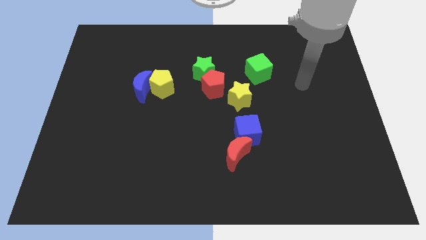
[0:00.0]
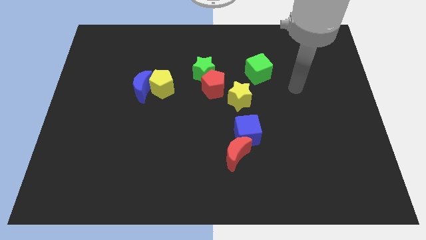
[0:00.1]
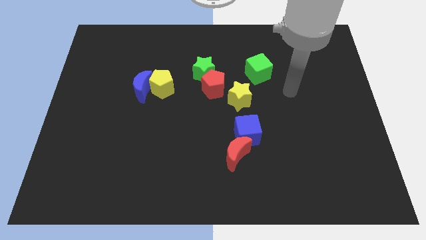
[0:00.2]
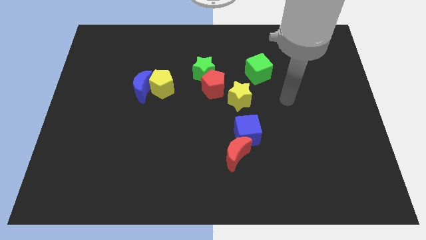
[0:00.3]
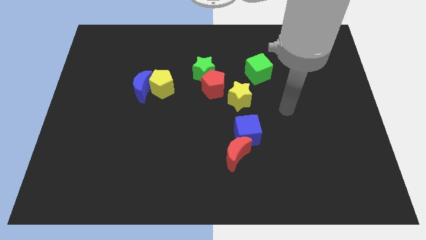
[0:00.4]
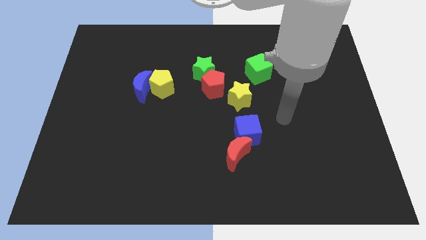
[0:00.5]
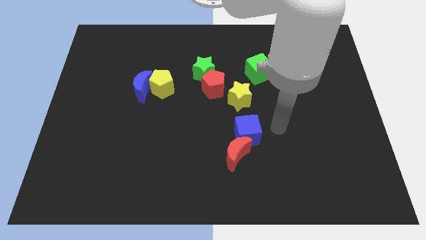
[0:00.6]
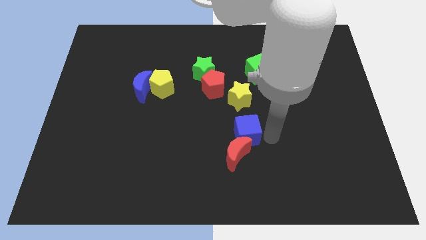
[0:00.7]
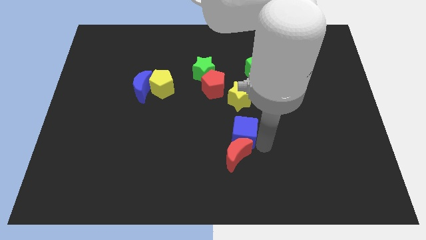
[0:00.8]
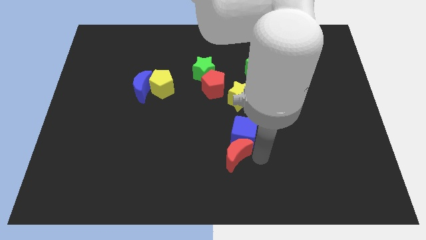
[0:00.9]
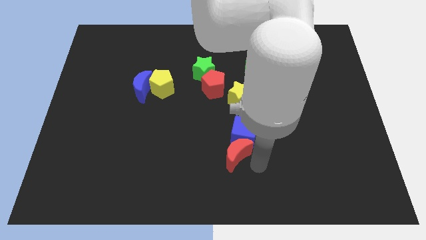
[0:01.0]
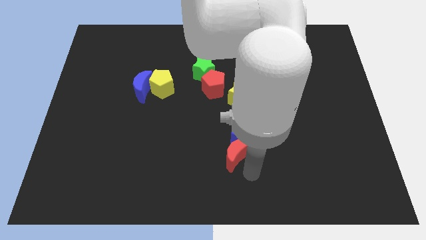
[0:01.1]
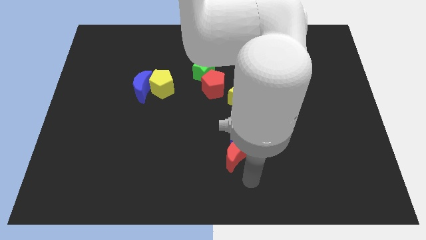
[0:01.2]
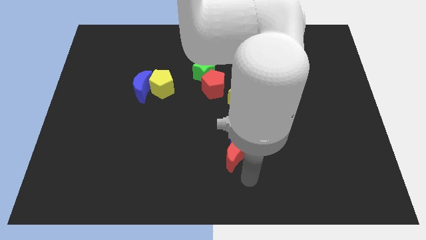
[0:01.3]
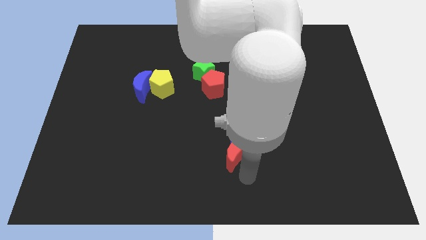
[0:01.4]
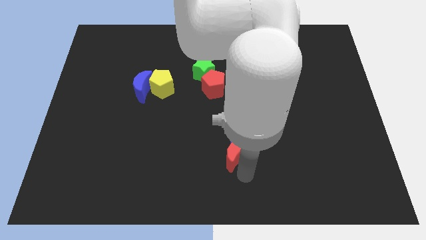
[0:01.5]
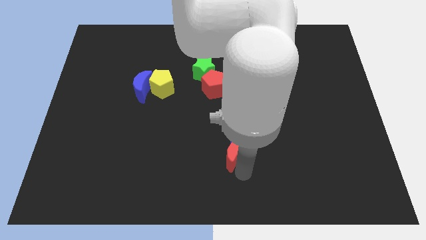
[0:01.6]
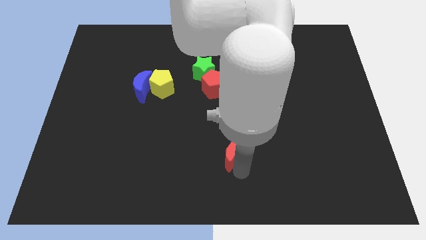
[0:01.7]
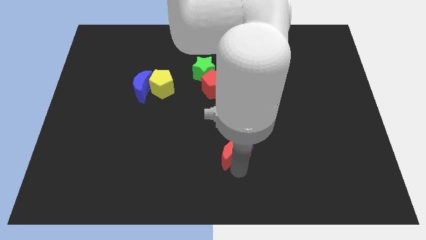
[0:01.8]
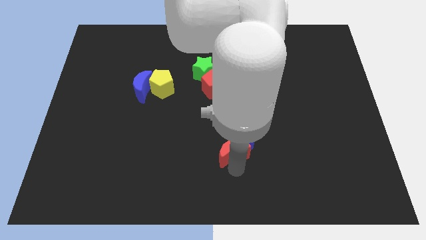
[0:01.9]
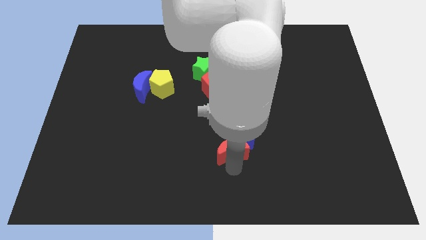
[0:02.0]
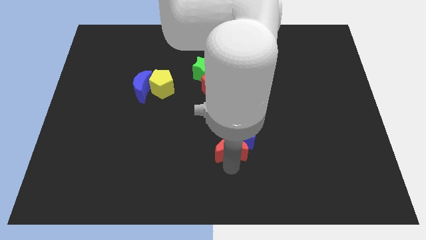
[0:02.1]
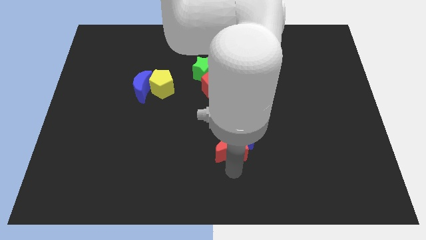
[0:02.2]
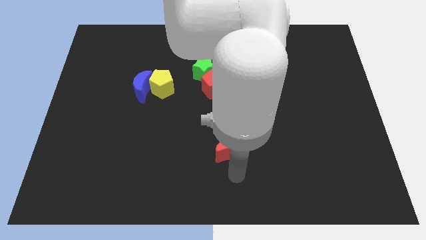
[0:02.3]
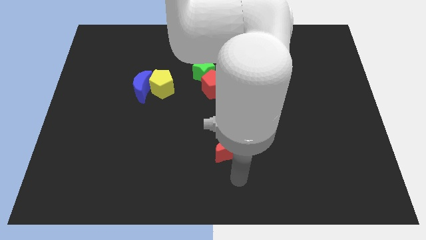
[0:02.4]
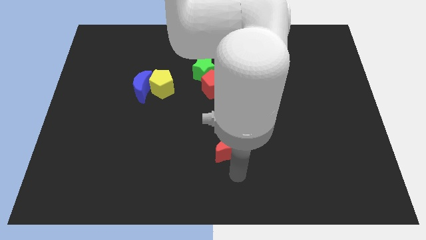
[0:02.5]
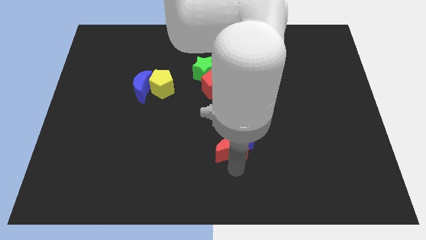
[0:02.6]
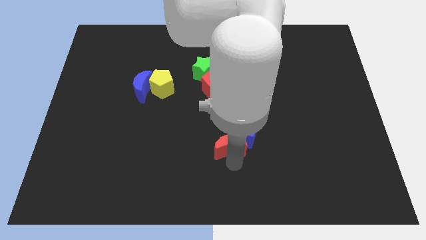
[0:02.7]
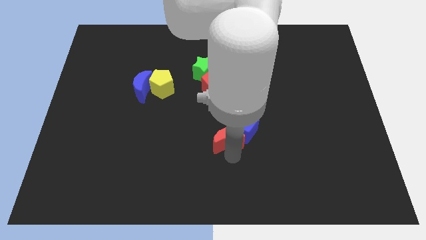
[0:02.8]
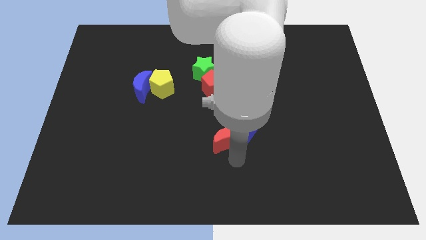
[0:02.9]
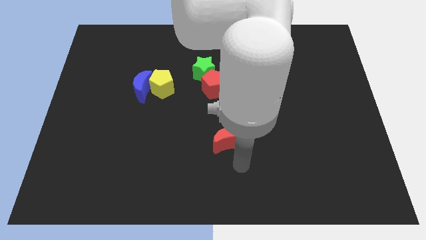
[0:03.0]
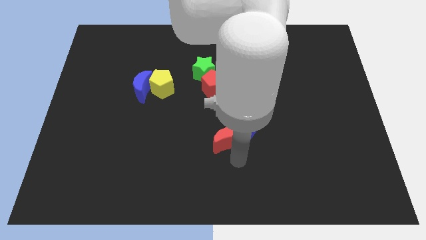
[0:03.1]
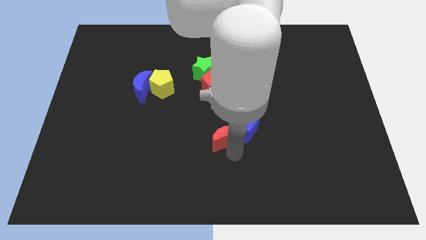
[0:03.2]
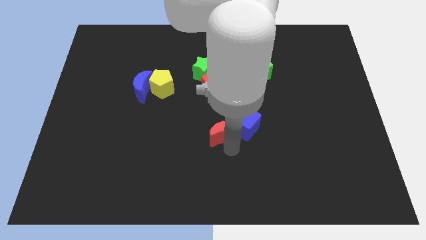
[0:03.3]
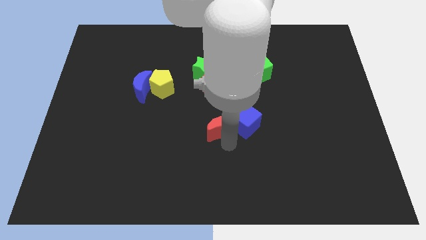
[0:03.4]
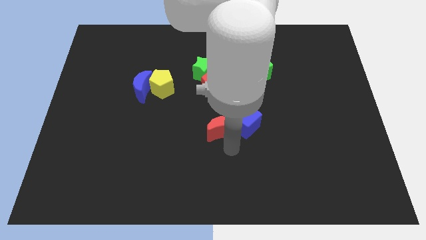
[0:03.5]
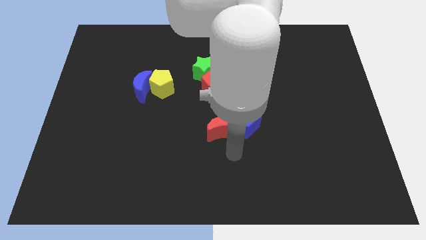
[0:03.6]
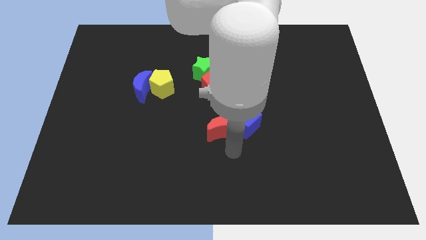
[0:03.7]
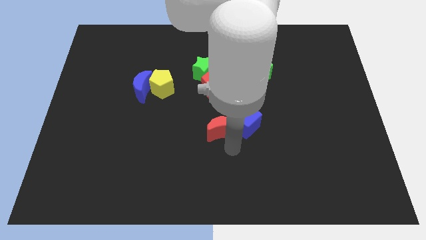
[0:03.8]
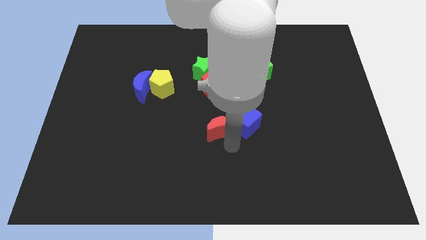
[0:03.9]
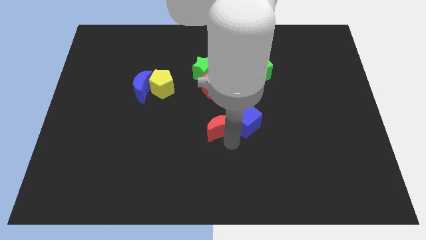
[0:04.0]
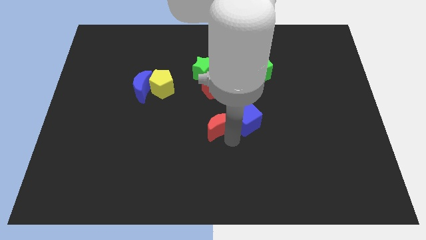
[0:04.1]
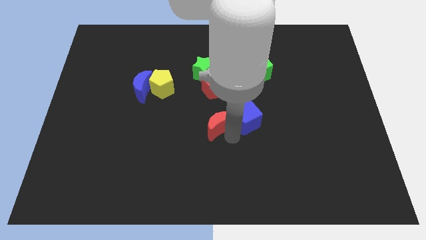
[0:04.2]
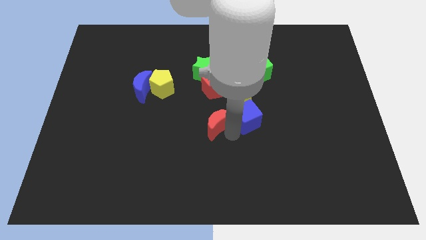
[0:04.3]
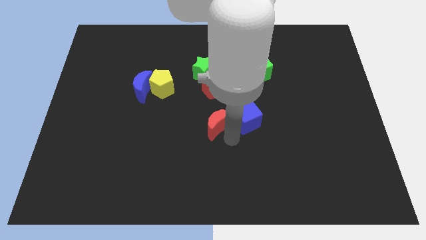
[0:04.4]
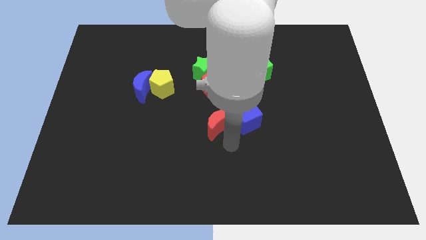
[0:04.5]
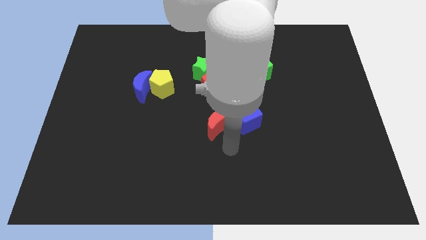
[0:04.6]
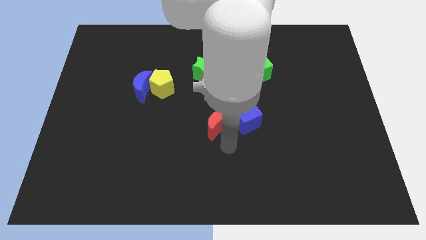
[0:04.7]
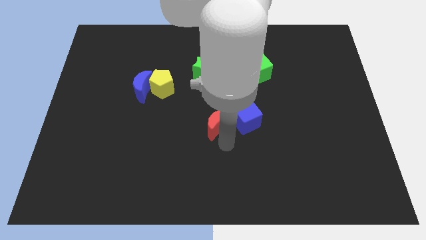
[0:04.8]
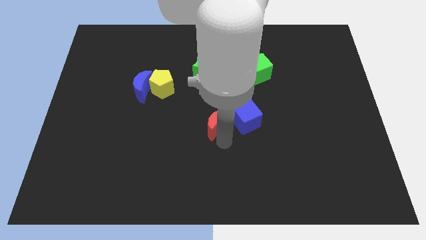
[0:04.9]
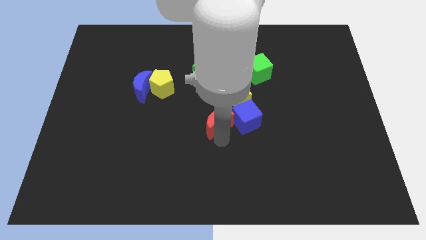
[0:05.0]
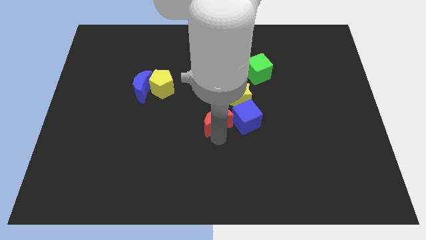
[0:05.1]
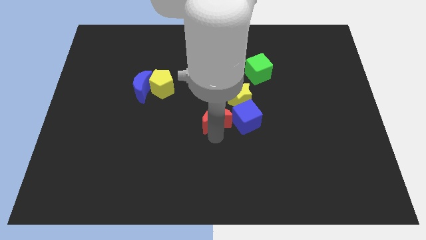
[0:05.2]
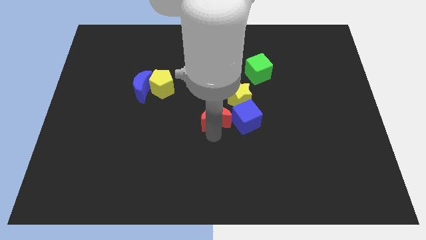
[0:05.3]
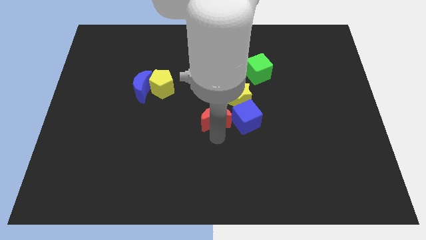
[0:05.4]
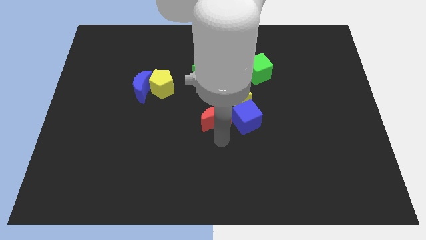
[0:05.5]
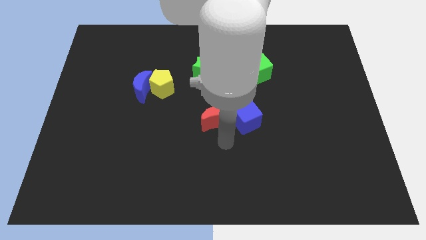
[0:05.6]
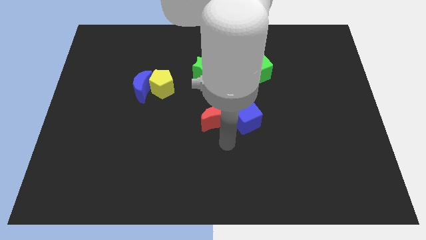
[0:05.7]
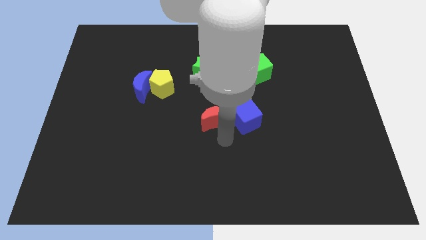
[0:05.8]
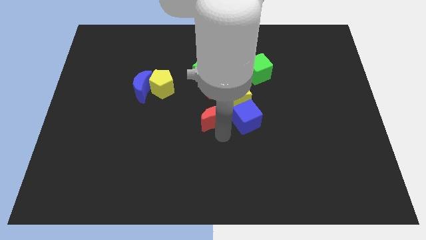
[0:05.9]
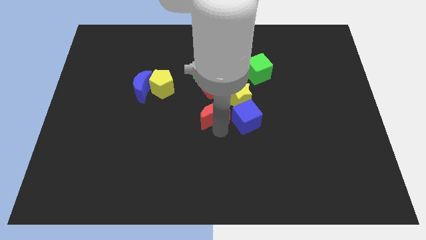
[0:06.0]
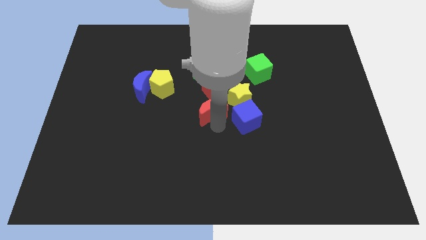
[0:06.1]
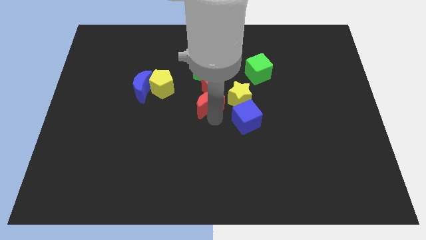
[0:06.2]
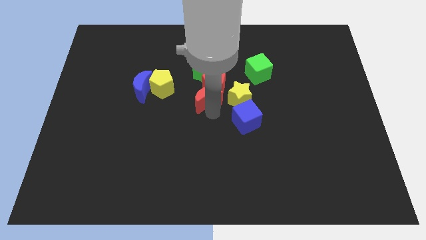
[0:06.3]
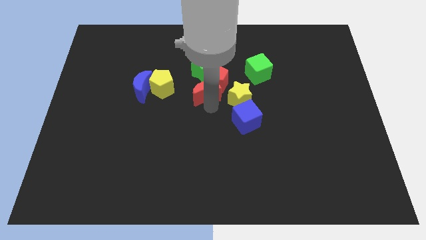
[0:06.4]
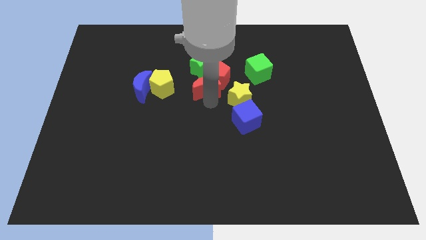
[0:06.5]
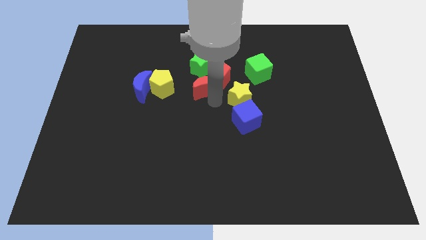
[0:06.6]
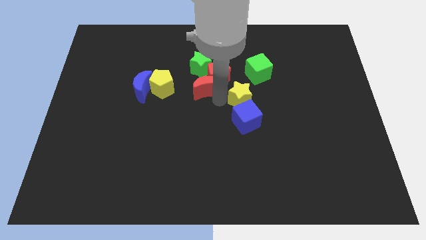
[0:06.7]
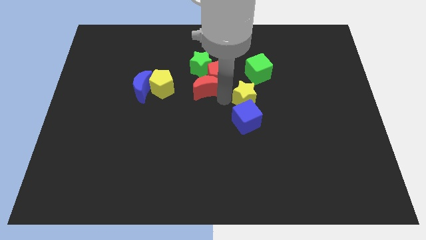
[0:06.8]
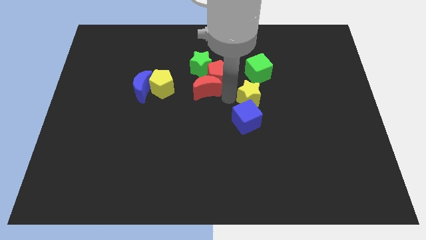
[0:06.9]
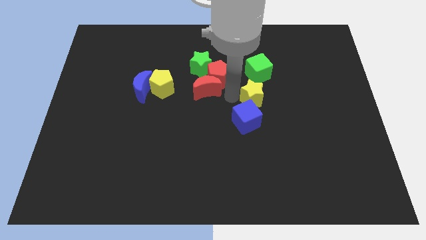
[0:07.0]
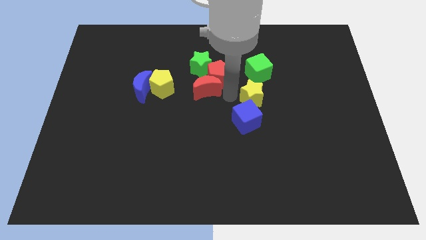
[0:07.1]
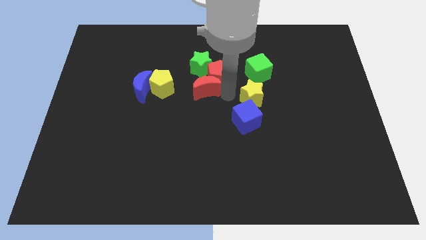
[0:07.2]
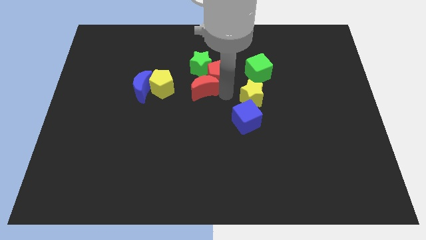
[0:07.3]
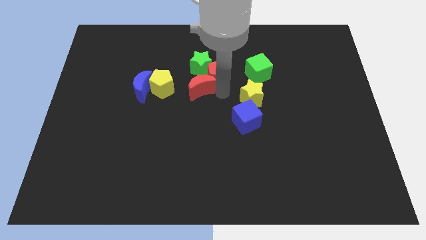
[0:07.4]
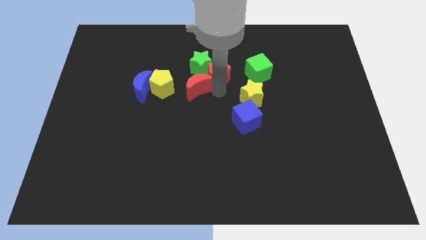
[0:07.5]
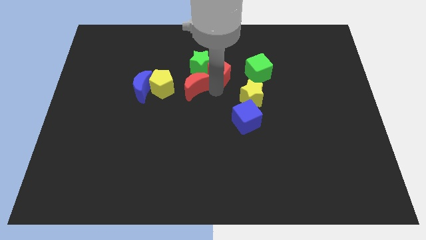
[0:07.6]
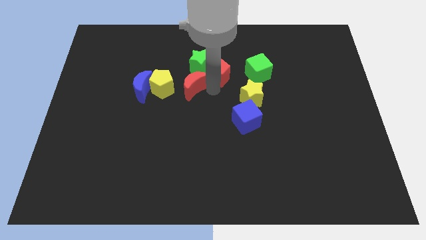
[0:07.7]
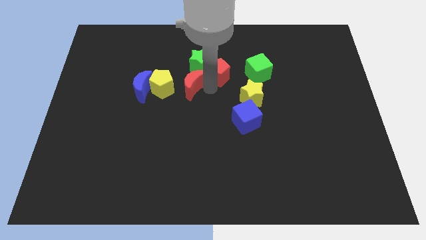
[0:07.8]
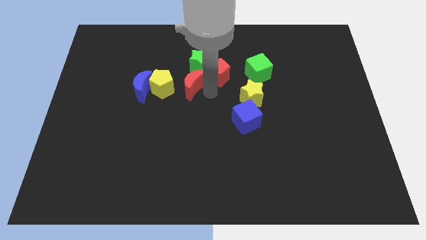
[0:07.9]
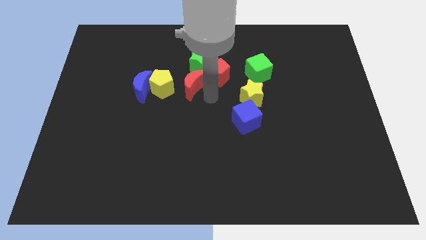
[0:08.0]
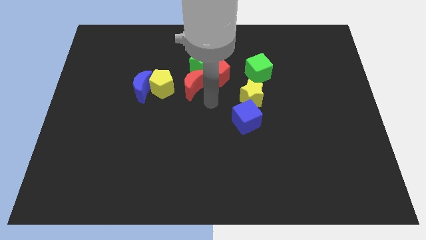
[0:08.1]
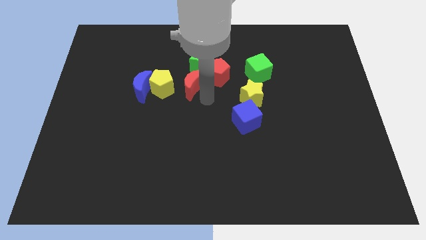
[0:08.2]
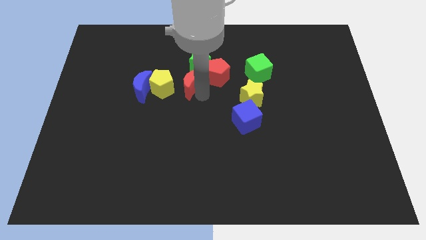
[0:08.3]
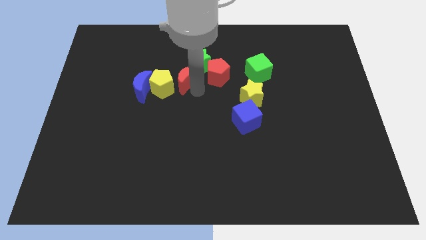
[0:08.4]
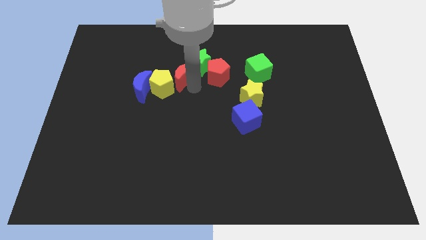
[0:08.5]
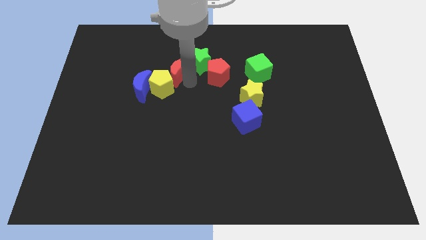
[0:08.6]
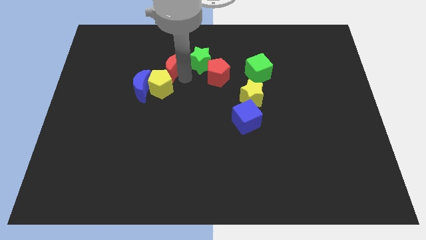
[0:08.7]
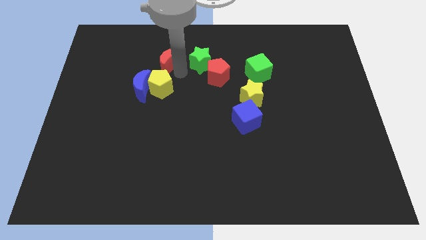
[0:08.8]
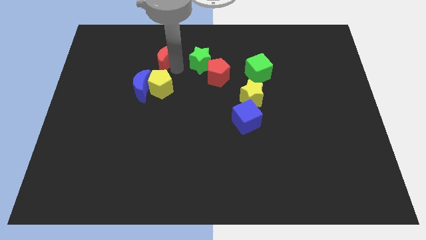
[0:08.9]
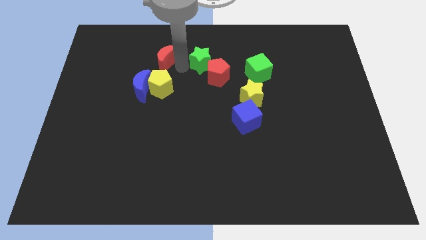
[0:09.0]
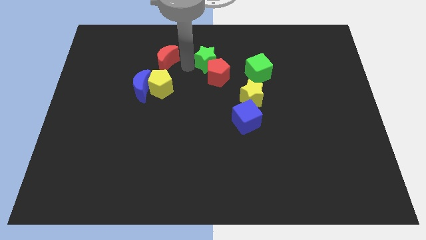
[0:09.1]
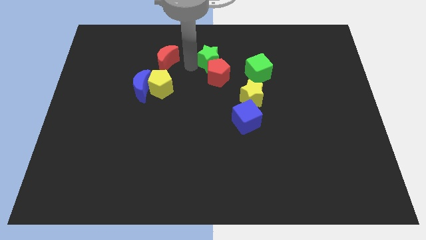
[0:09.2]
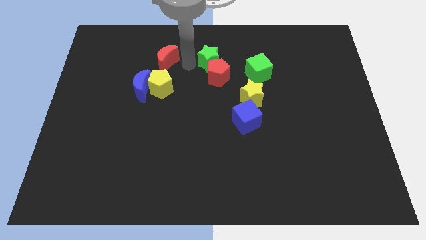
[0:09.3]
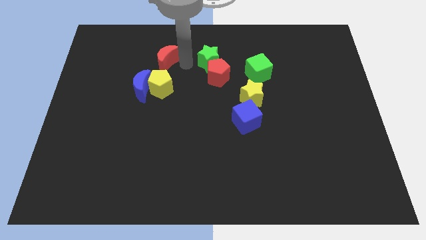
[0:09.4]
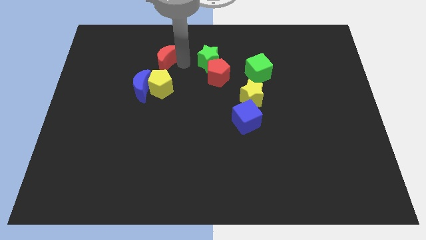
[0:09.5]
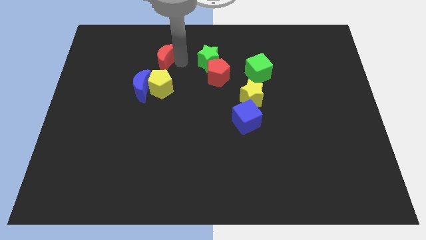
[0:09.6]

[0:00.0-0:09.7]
put the red moon to the top of the blue moon
